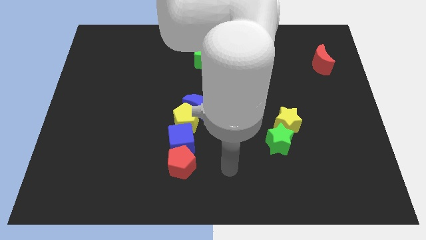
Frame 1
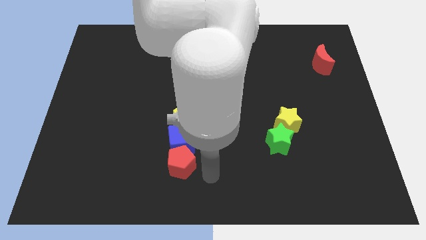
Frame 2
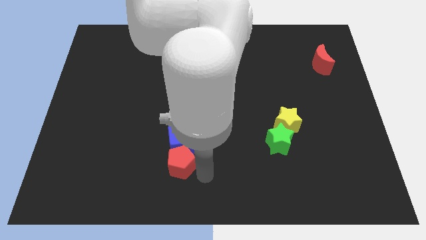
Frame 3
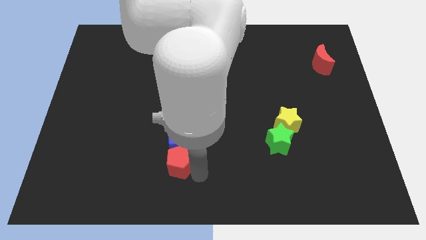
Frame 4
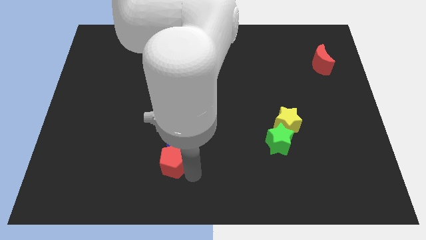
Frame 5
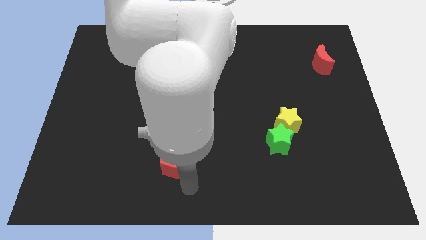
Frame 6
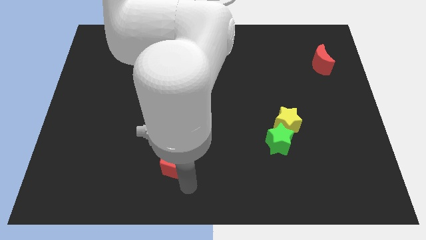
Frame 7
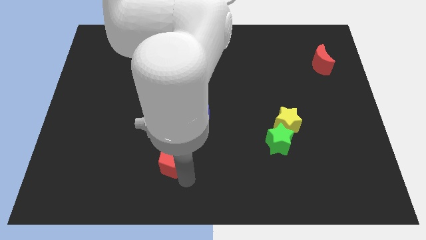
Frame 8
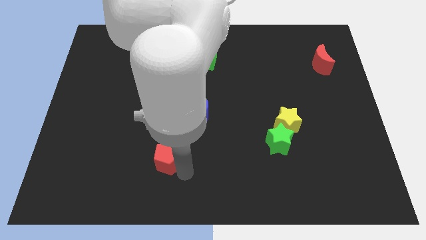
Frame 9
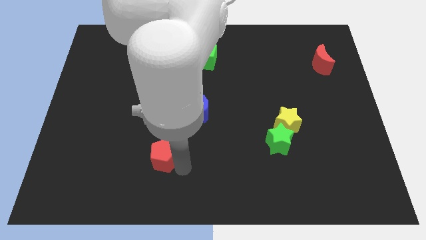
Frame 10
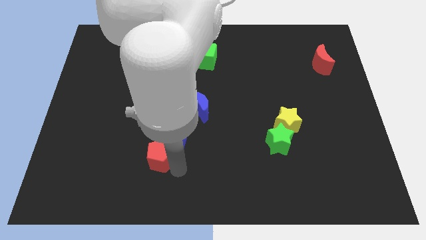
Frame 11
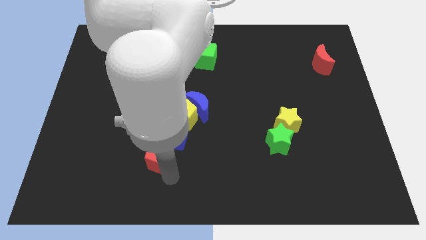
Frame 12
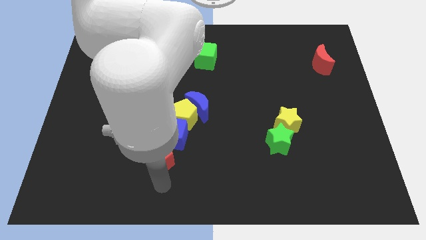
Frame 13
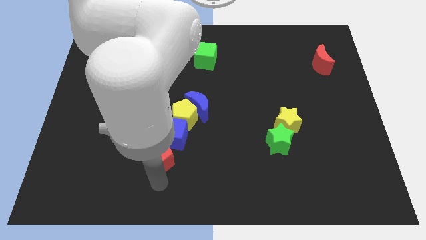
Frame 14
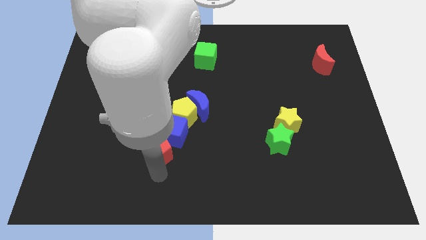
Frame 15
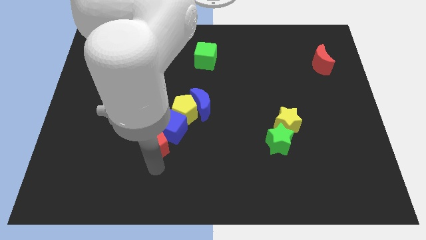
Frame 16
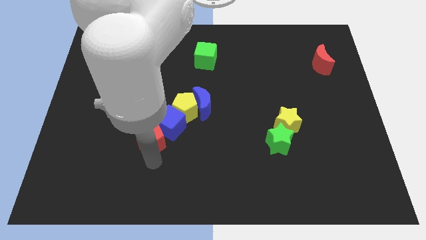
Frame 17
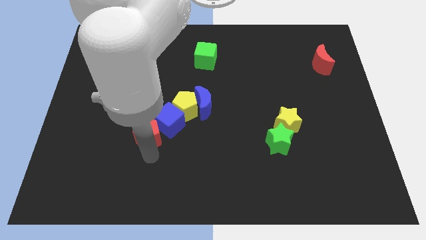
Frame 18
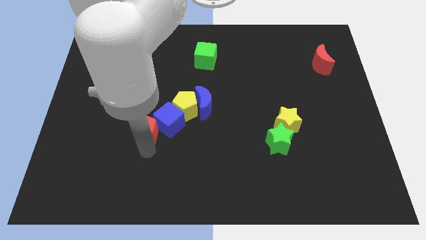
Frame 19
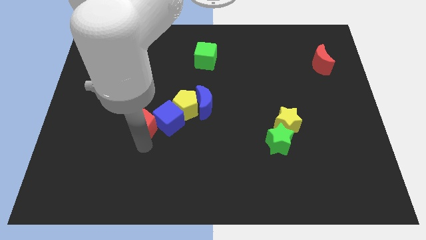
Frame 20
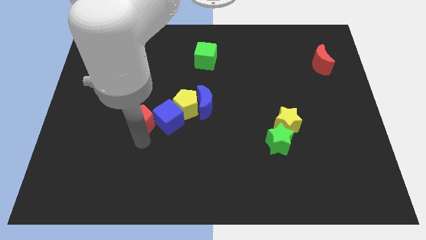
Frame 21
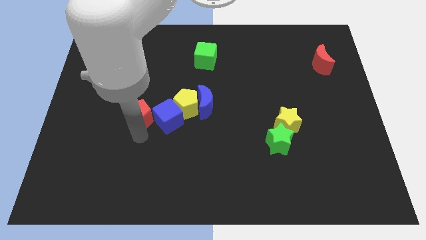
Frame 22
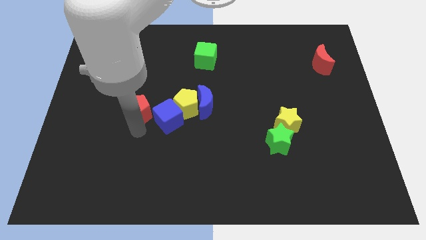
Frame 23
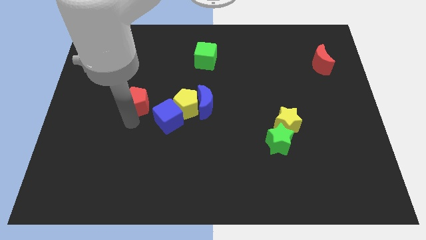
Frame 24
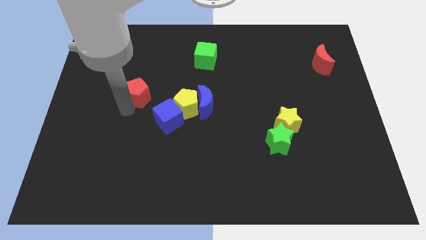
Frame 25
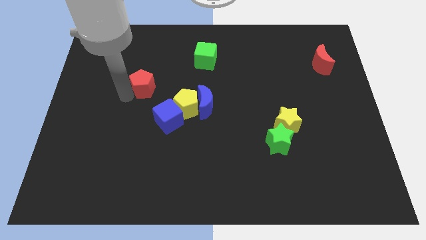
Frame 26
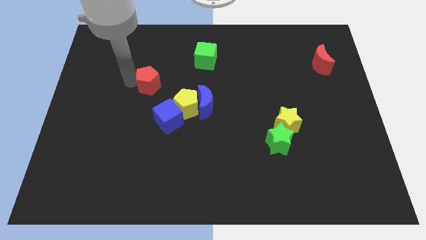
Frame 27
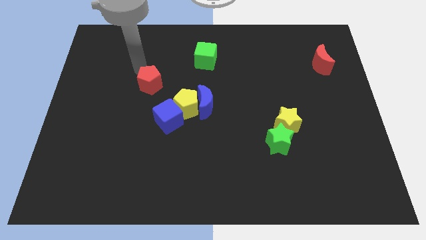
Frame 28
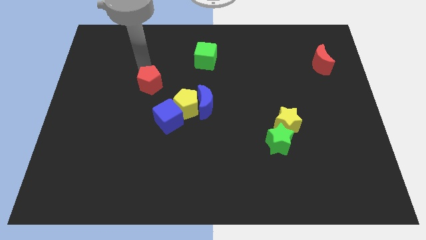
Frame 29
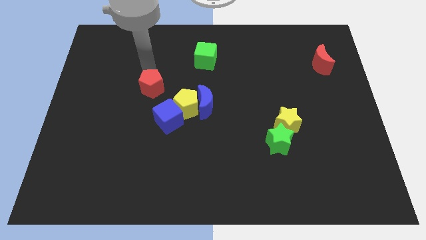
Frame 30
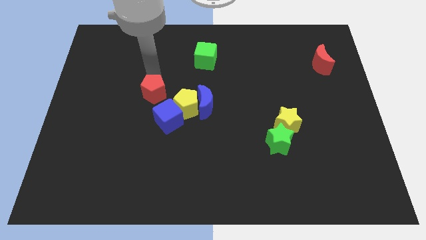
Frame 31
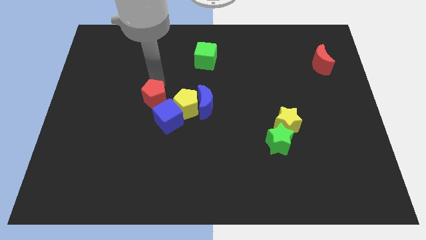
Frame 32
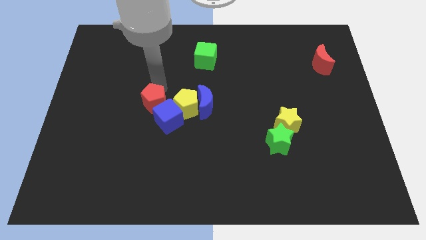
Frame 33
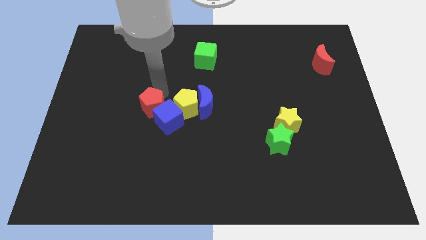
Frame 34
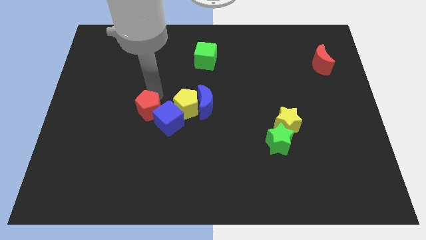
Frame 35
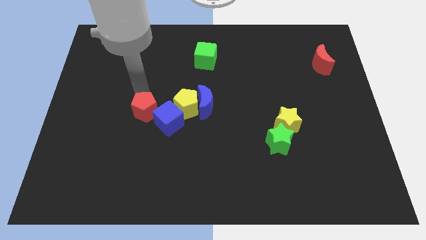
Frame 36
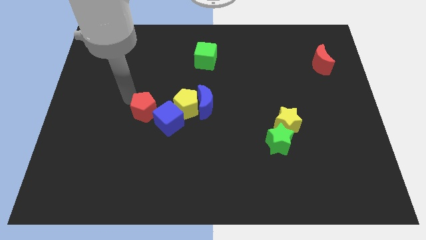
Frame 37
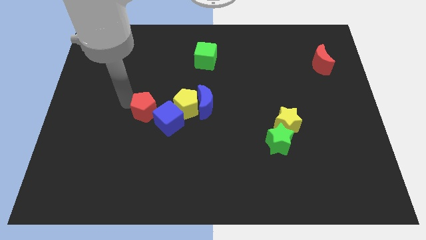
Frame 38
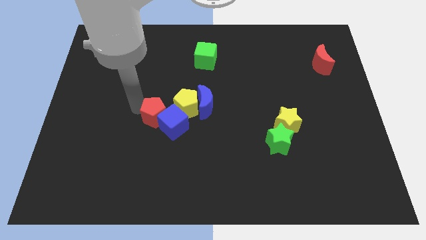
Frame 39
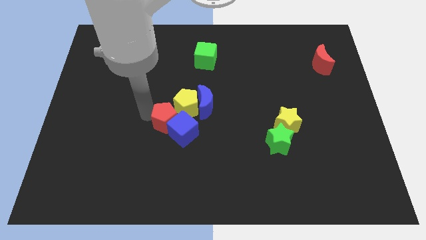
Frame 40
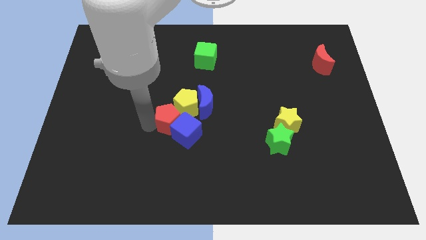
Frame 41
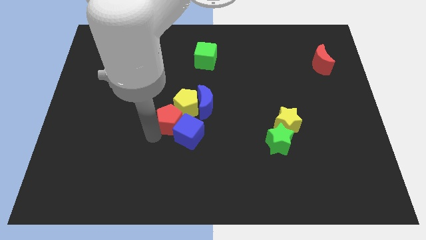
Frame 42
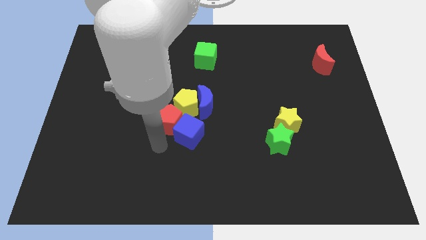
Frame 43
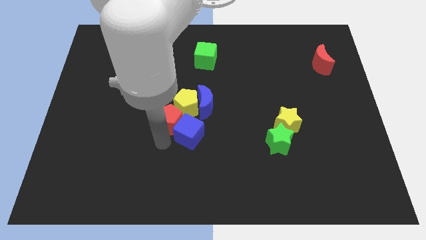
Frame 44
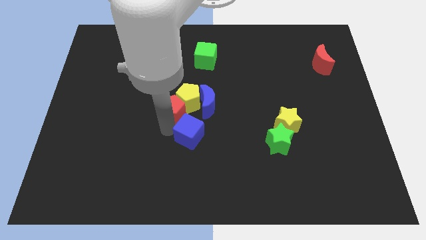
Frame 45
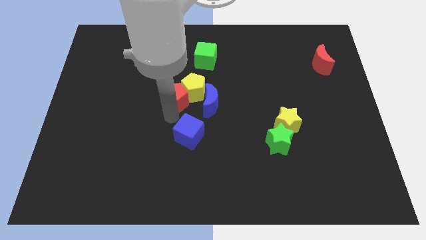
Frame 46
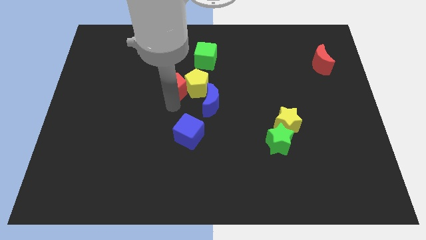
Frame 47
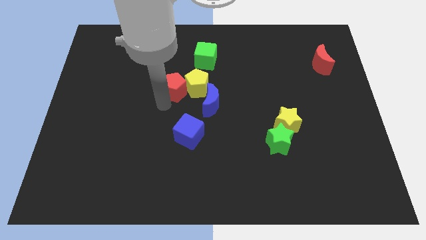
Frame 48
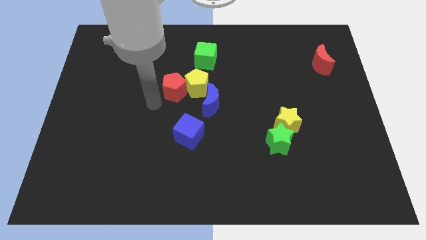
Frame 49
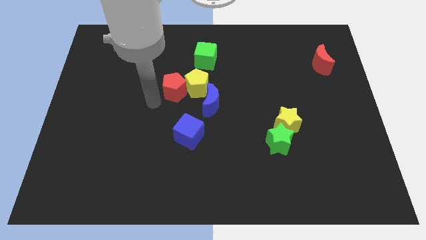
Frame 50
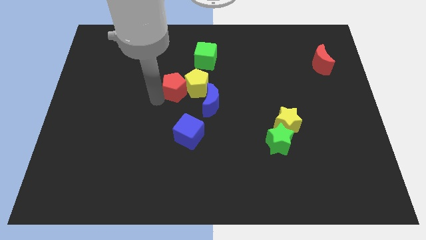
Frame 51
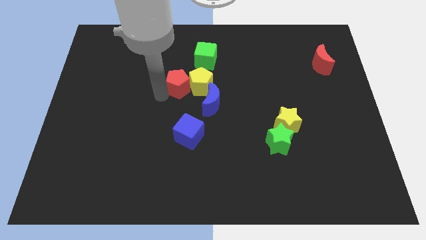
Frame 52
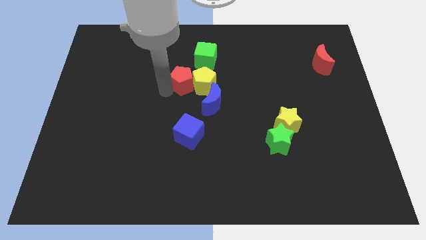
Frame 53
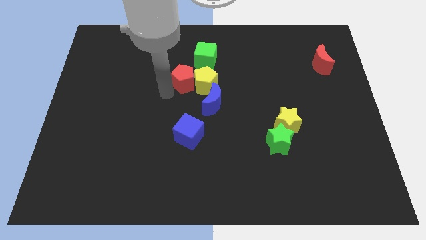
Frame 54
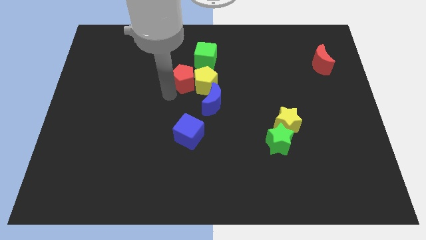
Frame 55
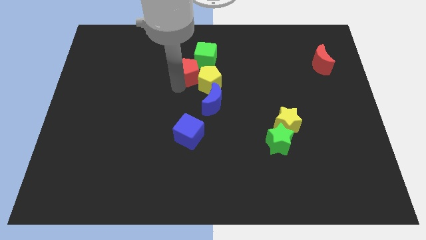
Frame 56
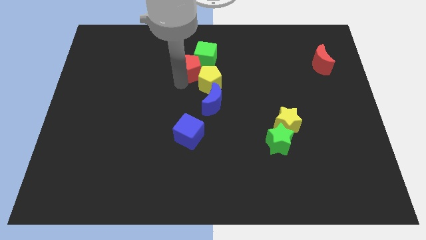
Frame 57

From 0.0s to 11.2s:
slide the red pentagon to the green cube

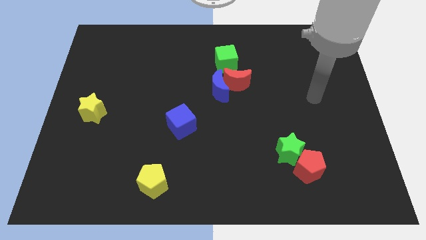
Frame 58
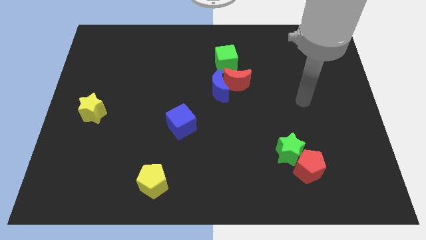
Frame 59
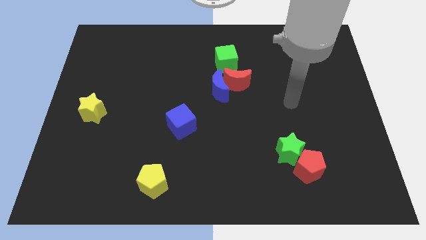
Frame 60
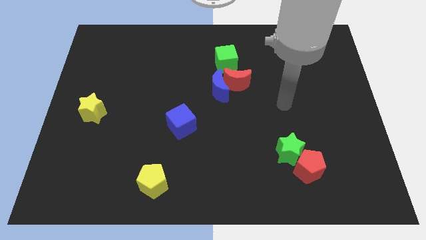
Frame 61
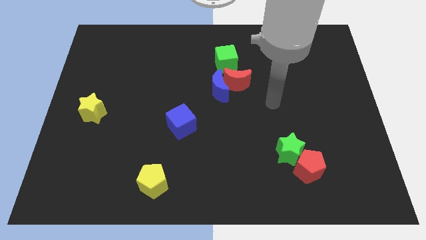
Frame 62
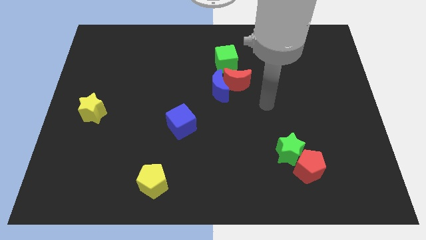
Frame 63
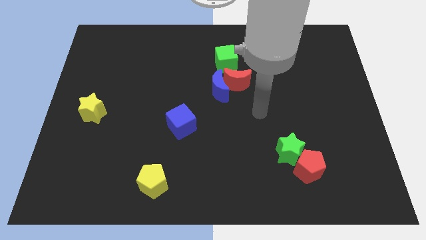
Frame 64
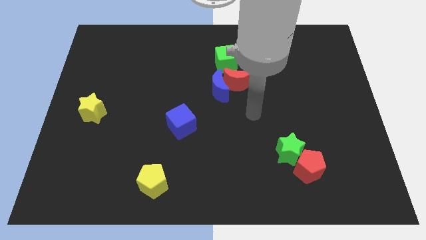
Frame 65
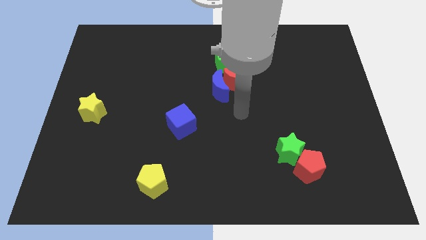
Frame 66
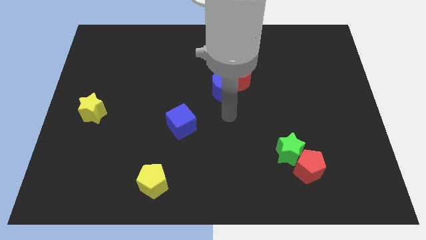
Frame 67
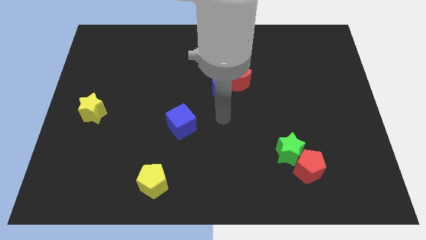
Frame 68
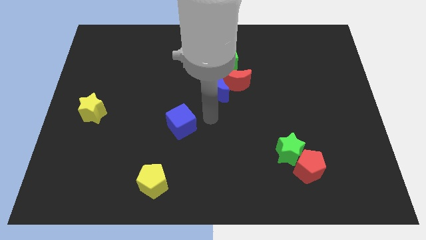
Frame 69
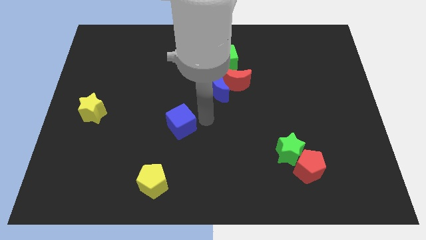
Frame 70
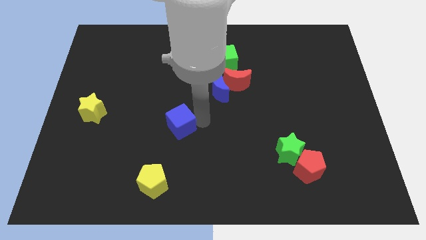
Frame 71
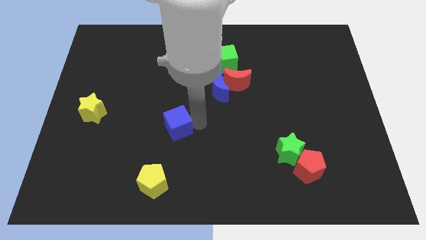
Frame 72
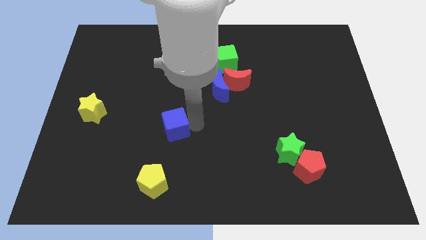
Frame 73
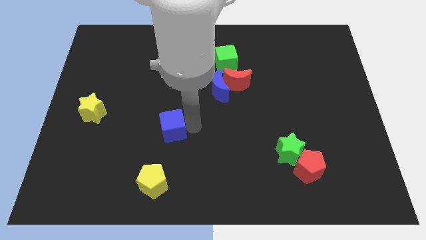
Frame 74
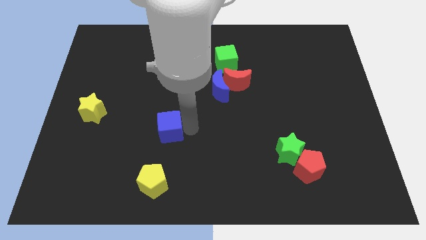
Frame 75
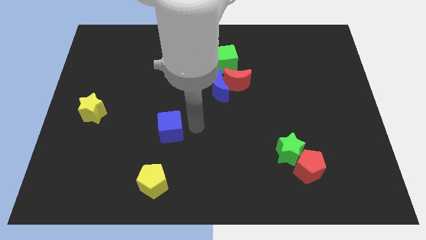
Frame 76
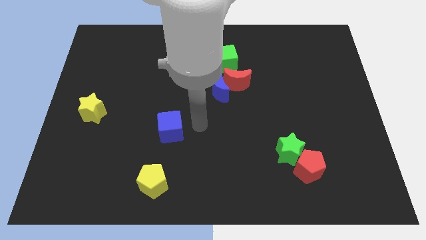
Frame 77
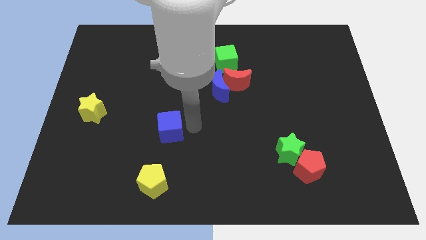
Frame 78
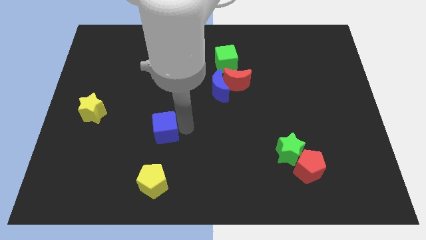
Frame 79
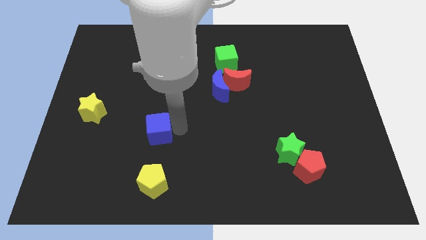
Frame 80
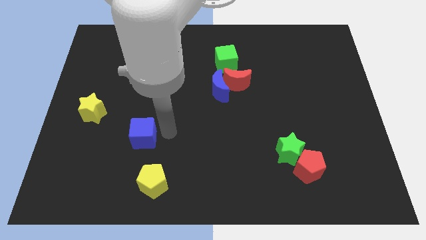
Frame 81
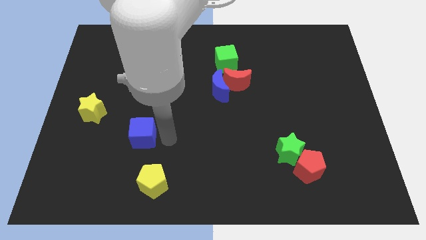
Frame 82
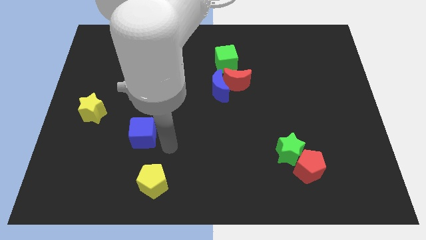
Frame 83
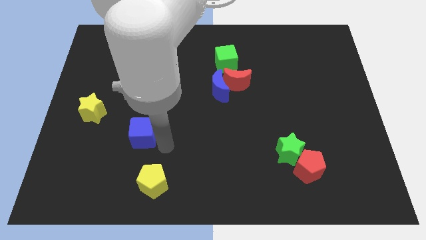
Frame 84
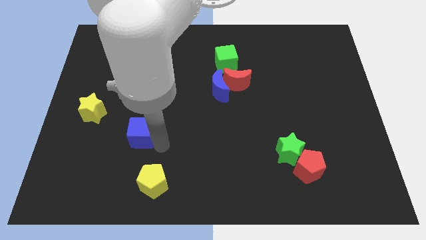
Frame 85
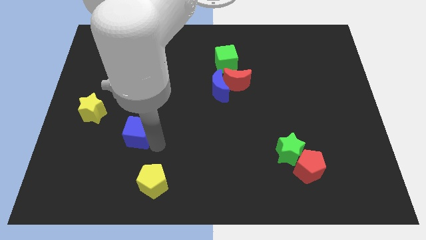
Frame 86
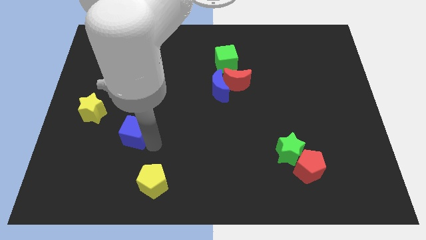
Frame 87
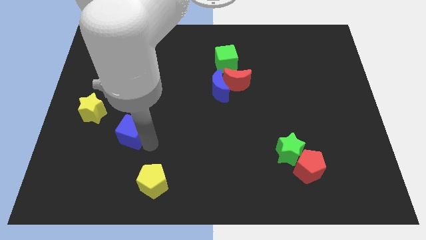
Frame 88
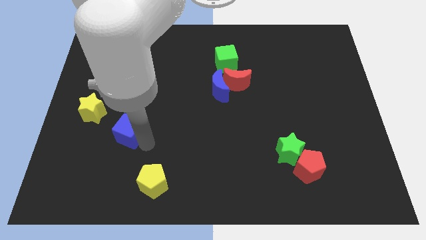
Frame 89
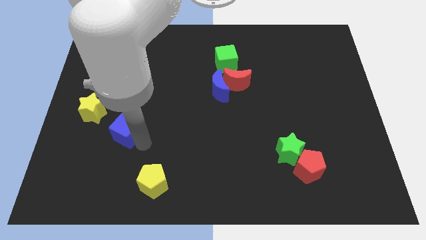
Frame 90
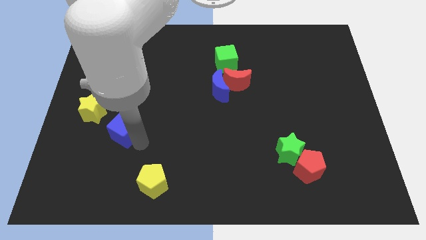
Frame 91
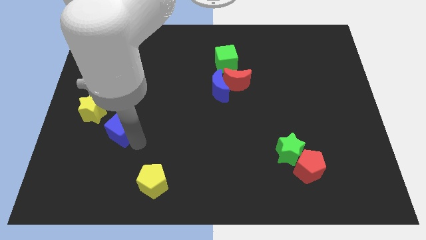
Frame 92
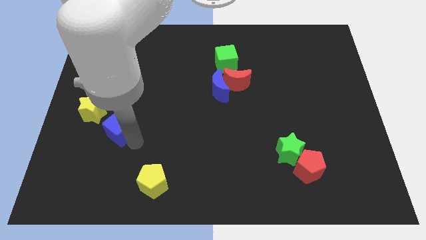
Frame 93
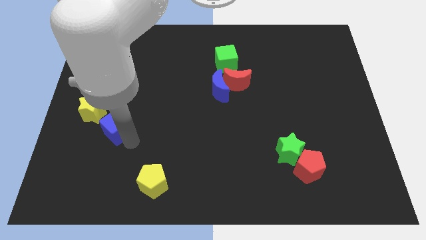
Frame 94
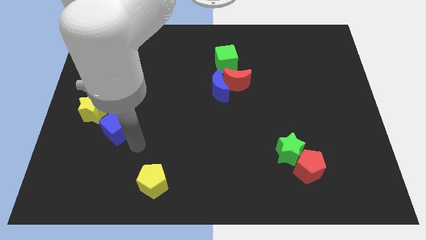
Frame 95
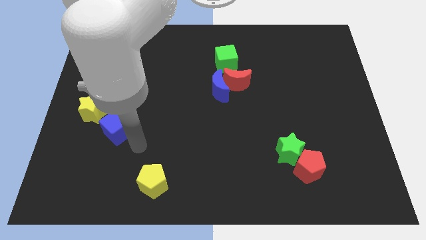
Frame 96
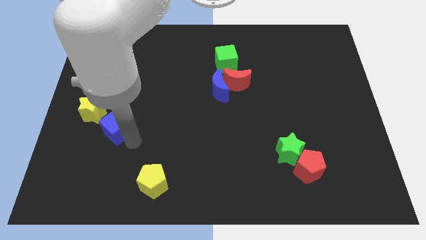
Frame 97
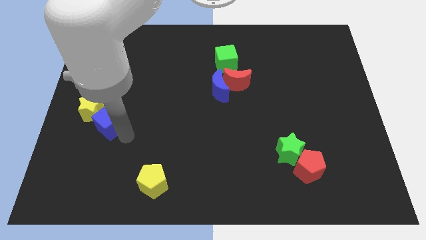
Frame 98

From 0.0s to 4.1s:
push the blue cube towards the yellow star
